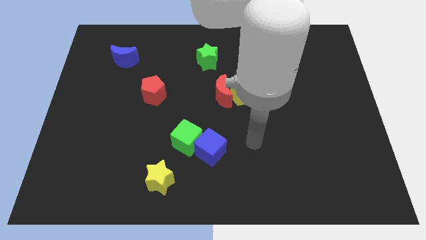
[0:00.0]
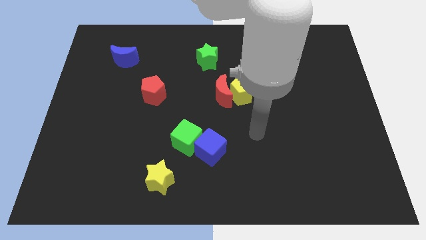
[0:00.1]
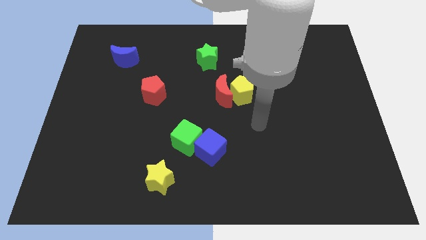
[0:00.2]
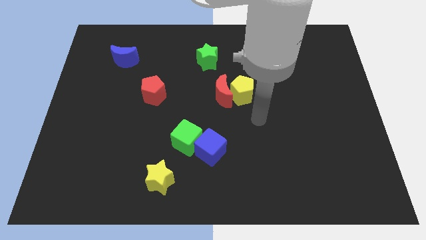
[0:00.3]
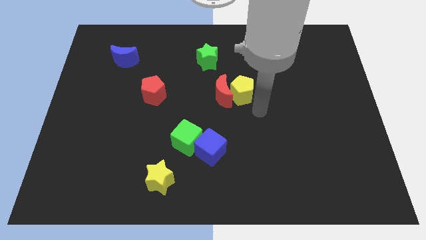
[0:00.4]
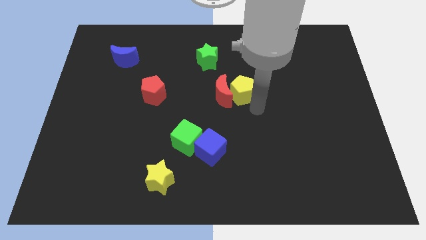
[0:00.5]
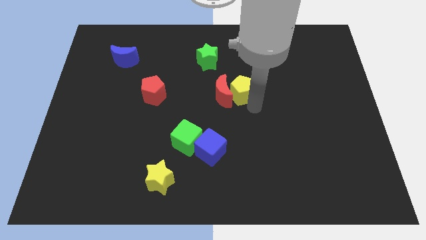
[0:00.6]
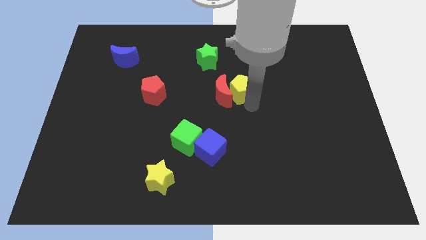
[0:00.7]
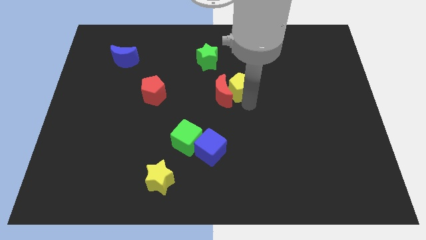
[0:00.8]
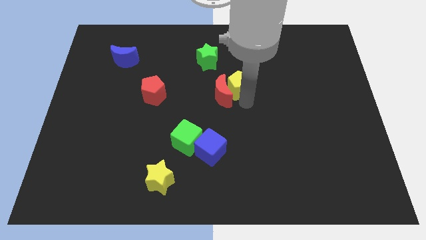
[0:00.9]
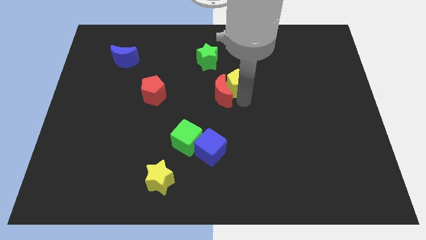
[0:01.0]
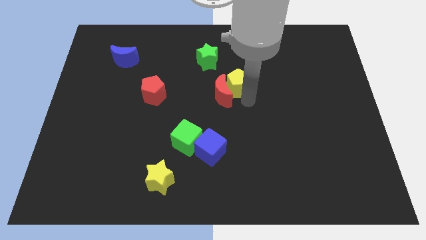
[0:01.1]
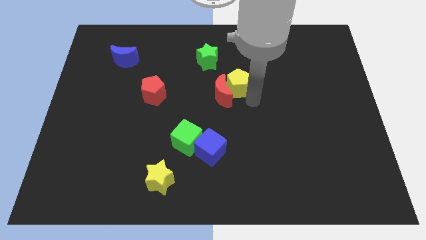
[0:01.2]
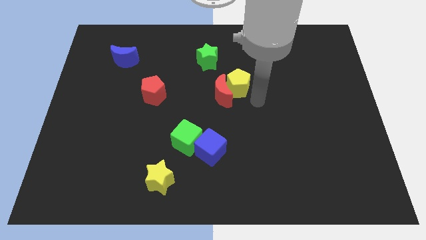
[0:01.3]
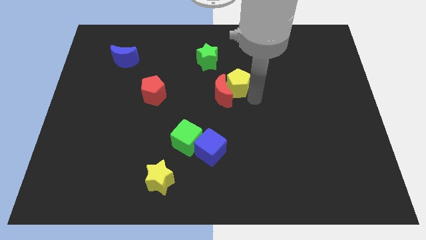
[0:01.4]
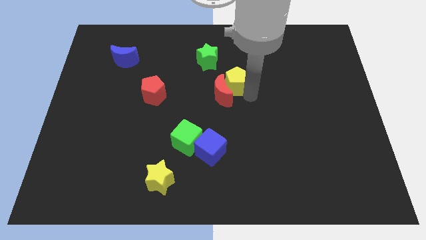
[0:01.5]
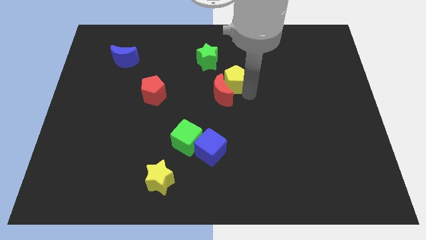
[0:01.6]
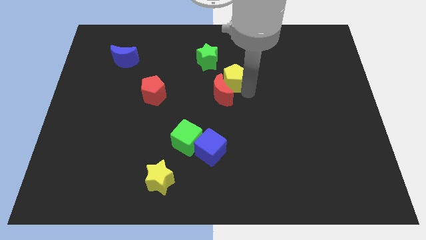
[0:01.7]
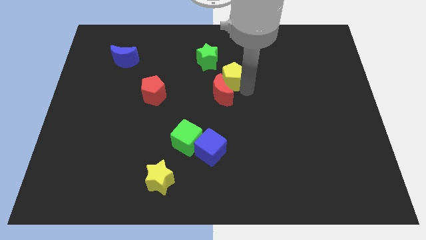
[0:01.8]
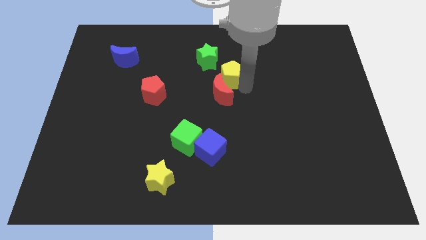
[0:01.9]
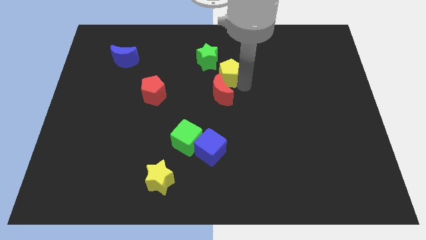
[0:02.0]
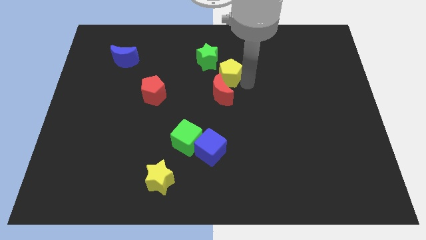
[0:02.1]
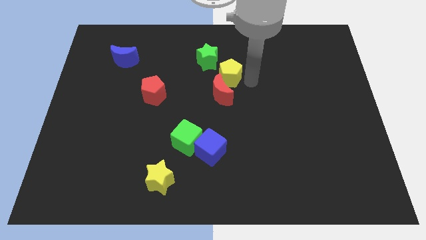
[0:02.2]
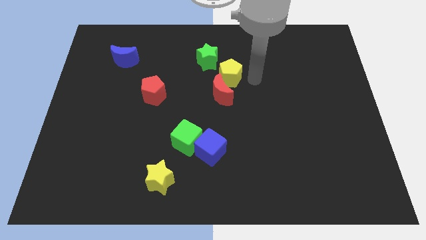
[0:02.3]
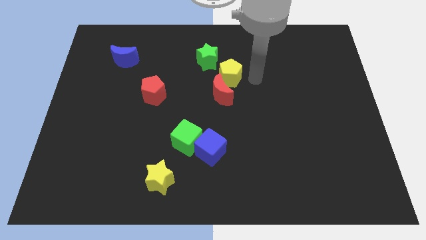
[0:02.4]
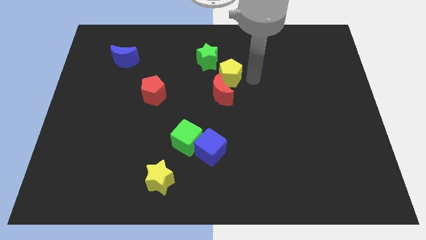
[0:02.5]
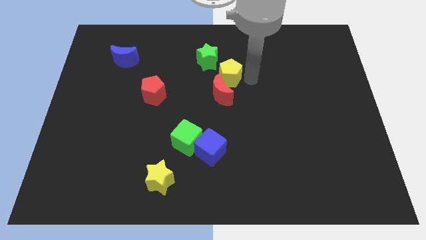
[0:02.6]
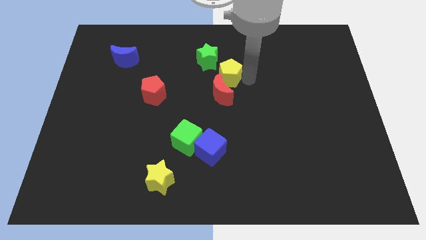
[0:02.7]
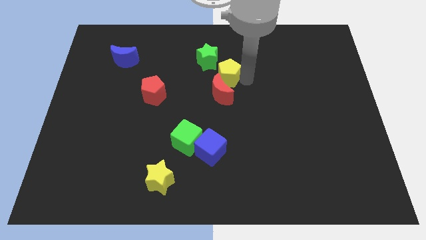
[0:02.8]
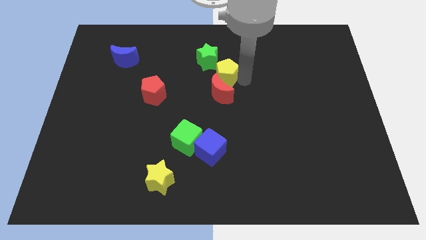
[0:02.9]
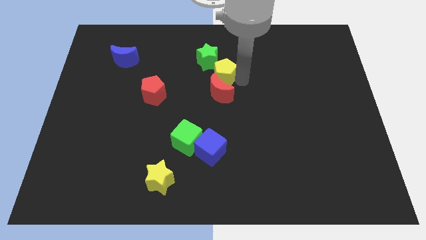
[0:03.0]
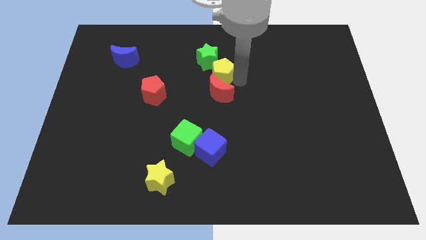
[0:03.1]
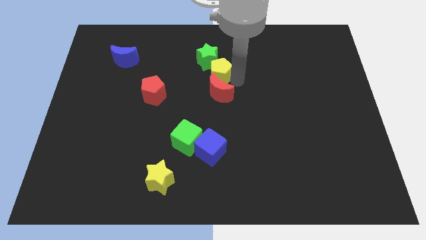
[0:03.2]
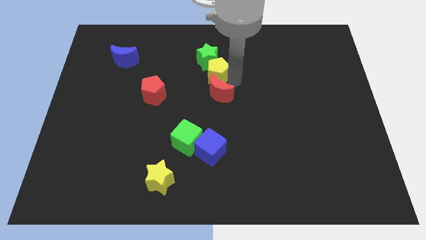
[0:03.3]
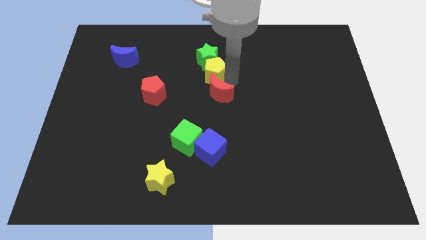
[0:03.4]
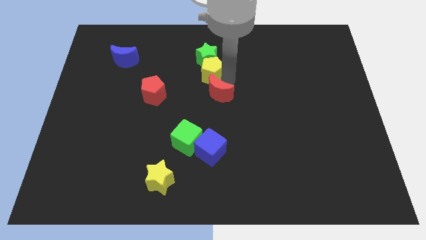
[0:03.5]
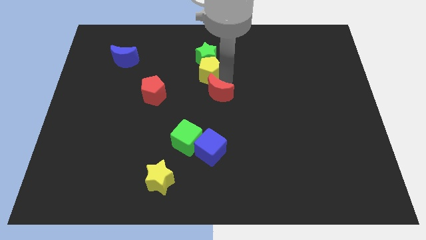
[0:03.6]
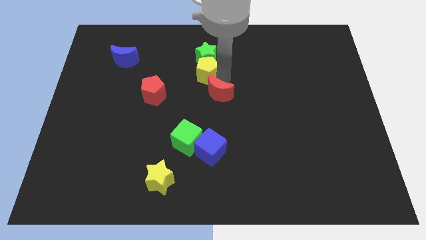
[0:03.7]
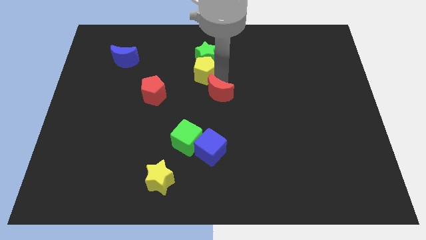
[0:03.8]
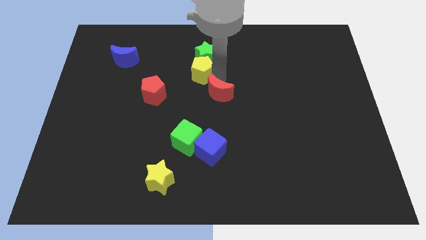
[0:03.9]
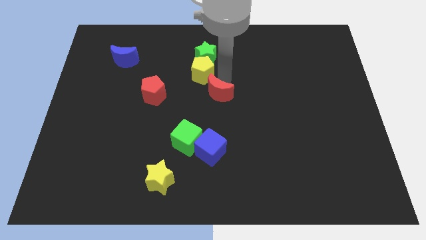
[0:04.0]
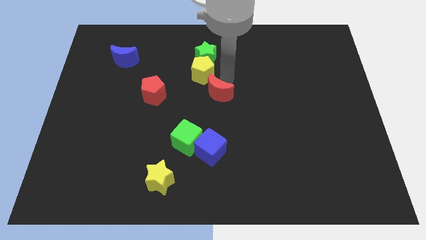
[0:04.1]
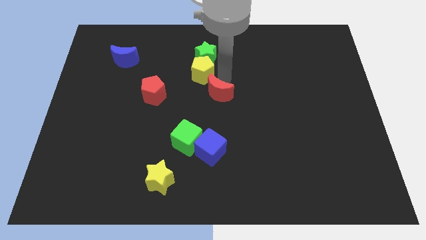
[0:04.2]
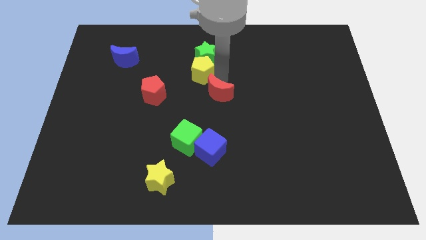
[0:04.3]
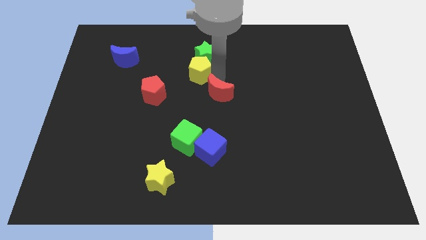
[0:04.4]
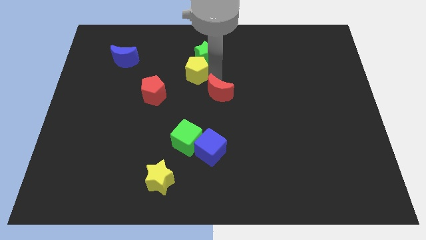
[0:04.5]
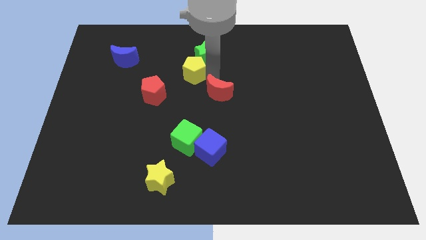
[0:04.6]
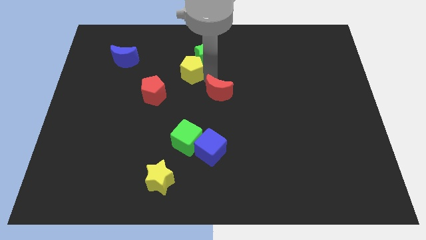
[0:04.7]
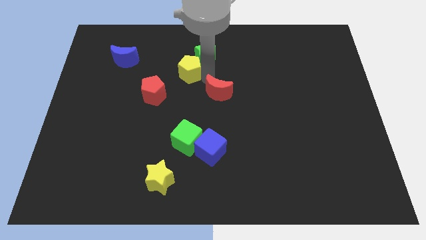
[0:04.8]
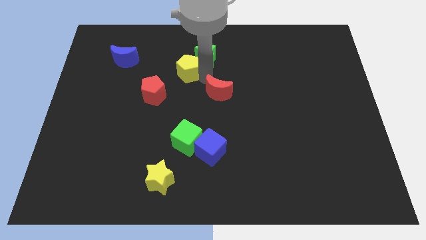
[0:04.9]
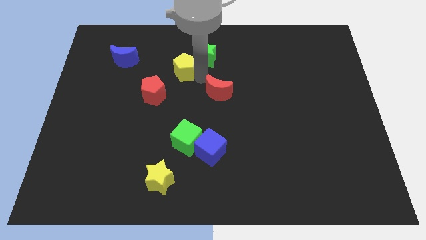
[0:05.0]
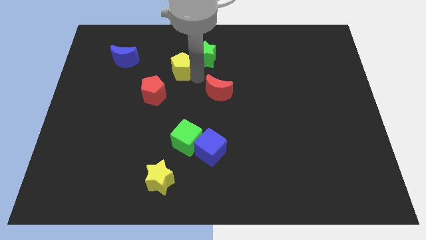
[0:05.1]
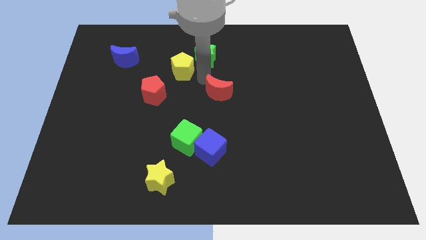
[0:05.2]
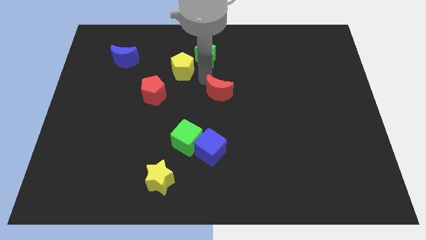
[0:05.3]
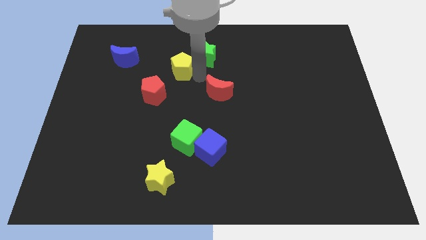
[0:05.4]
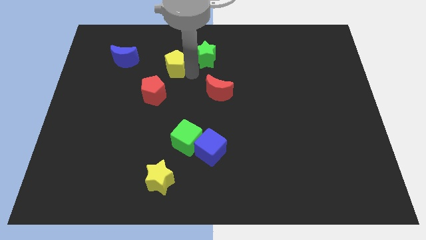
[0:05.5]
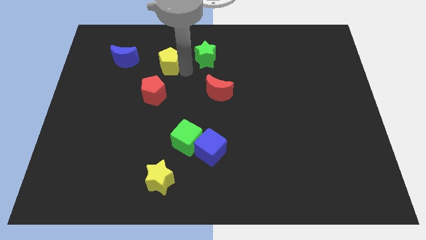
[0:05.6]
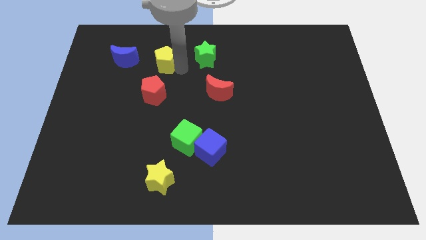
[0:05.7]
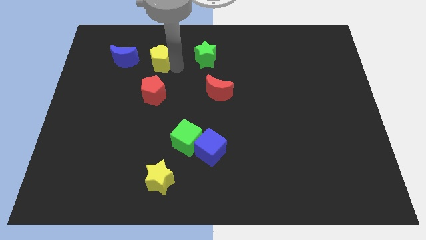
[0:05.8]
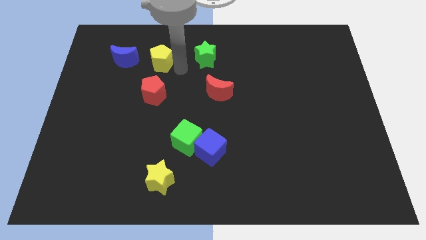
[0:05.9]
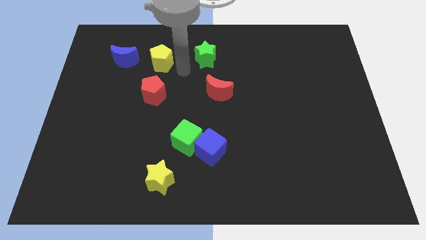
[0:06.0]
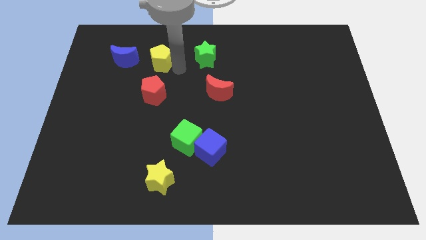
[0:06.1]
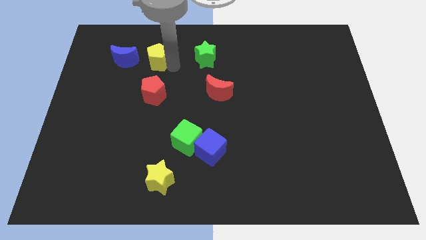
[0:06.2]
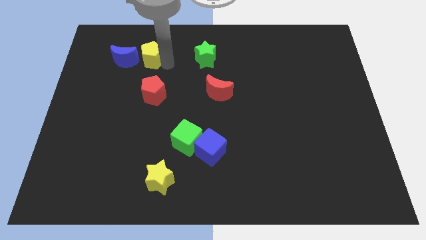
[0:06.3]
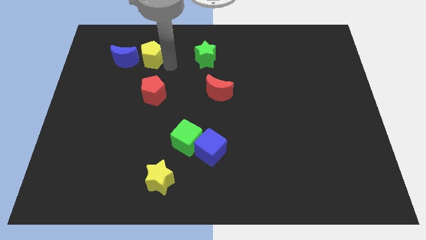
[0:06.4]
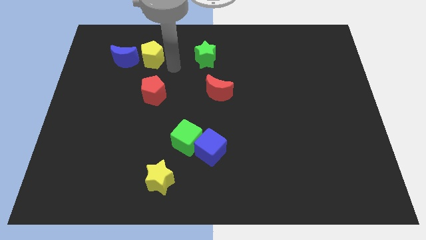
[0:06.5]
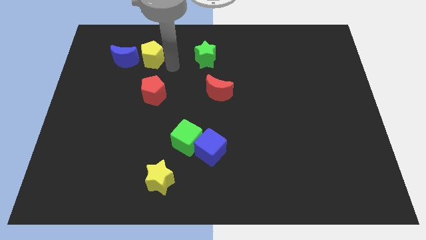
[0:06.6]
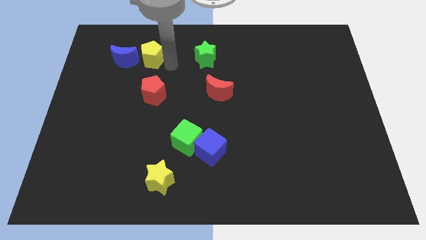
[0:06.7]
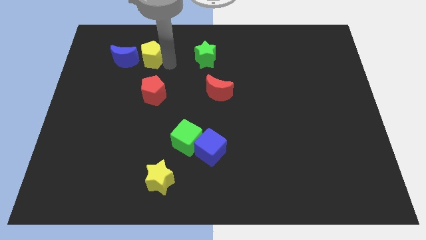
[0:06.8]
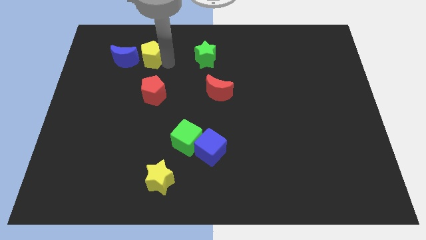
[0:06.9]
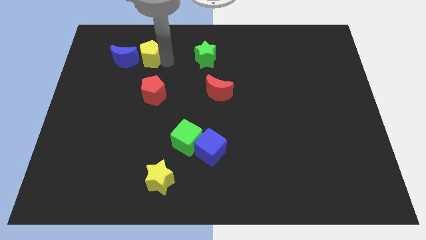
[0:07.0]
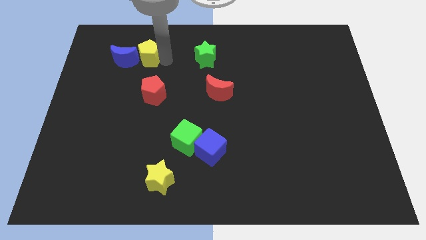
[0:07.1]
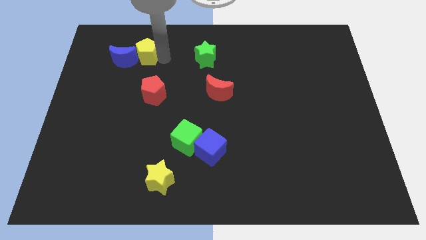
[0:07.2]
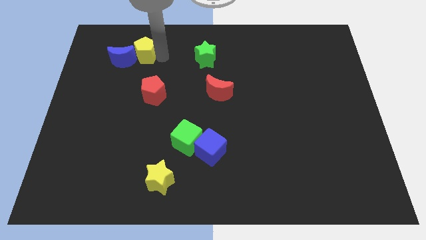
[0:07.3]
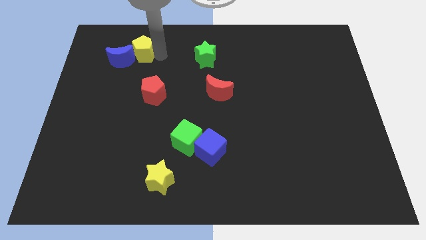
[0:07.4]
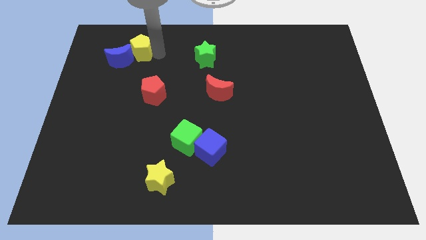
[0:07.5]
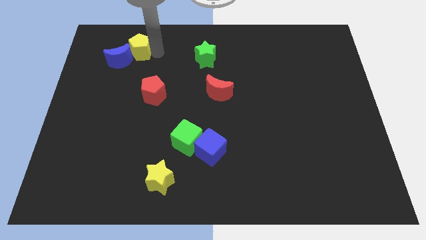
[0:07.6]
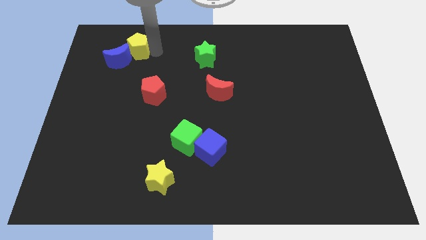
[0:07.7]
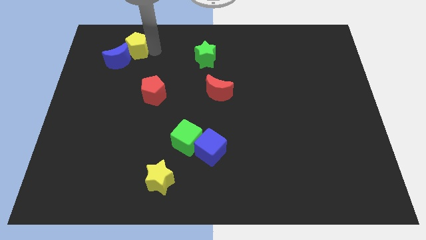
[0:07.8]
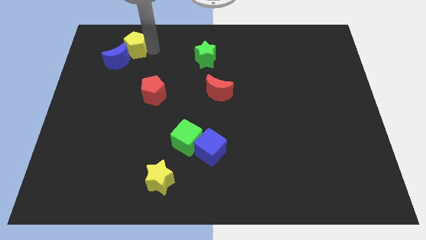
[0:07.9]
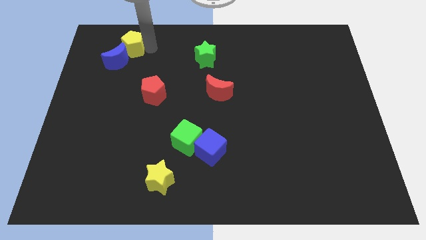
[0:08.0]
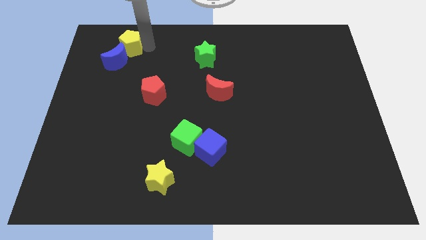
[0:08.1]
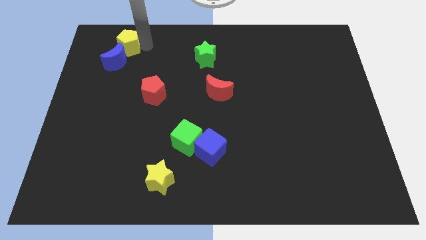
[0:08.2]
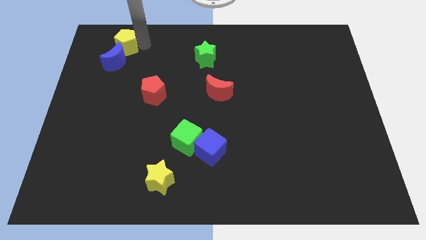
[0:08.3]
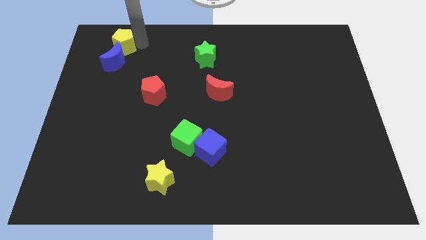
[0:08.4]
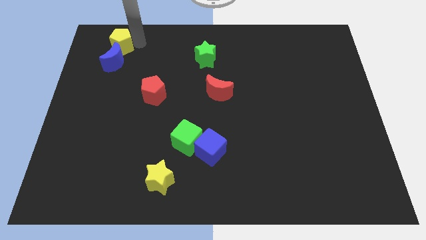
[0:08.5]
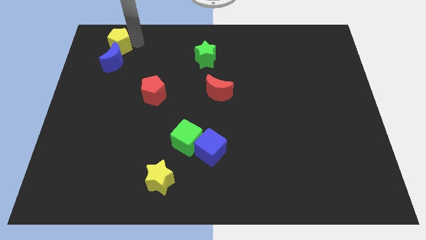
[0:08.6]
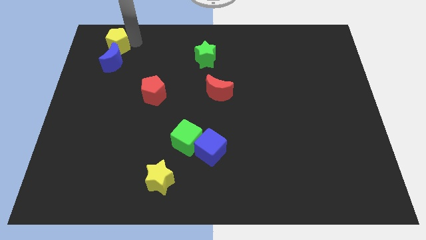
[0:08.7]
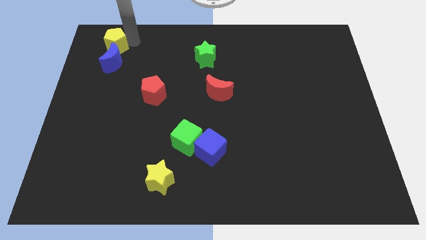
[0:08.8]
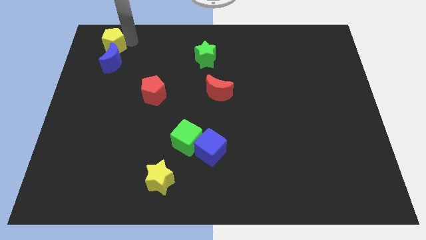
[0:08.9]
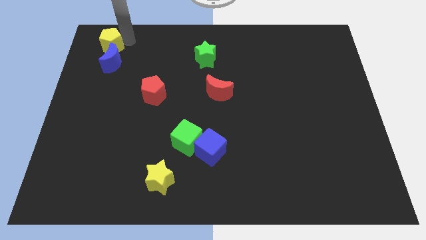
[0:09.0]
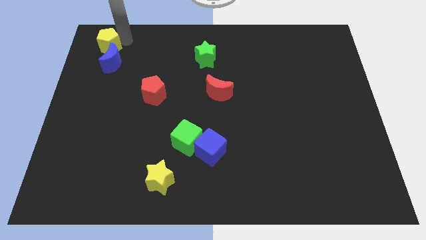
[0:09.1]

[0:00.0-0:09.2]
put the yellow pentagon to the top left corner
